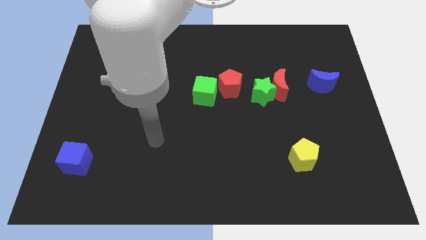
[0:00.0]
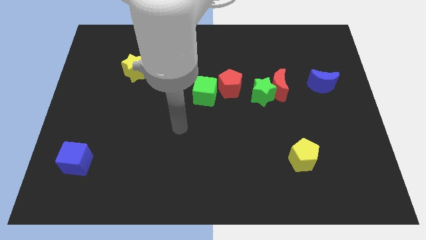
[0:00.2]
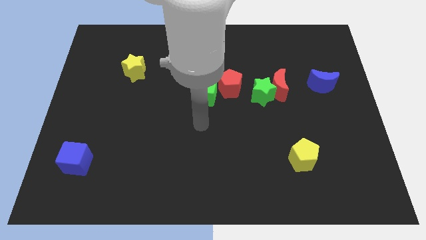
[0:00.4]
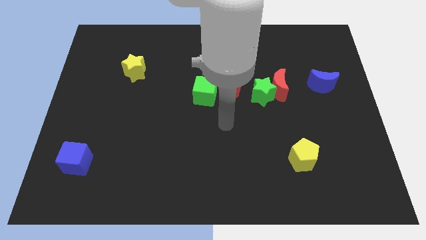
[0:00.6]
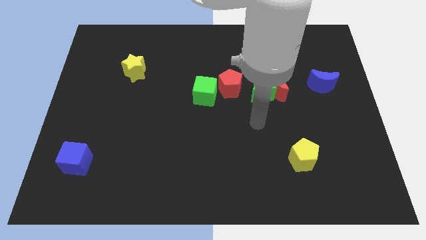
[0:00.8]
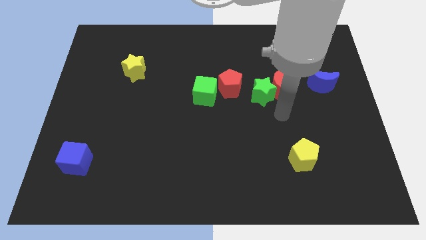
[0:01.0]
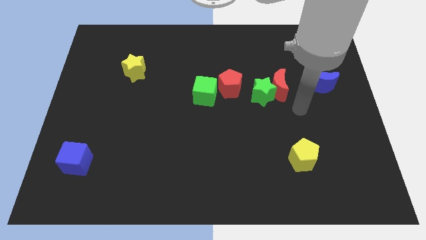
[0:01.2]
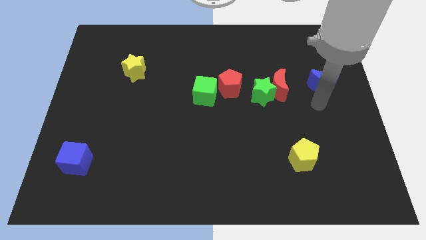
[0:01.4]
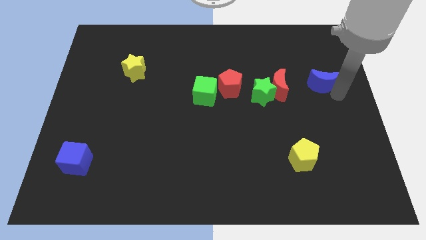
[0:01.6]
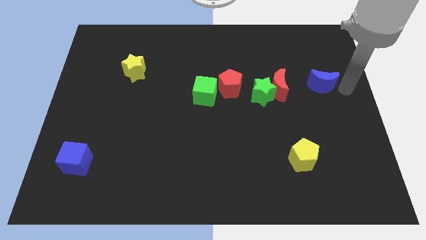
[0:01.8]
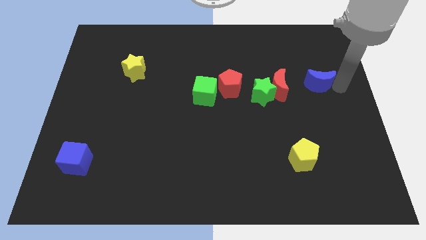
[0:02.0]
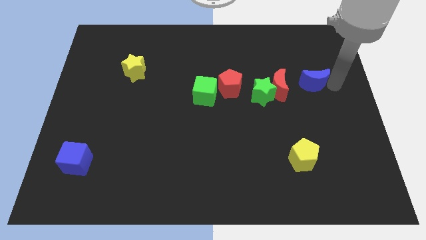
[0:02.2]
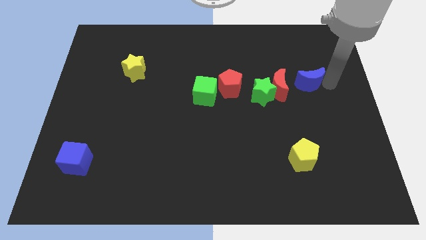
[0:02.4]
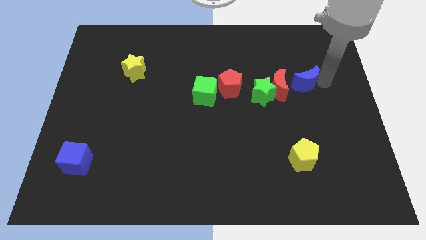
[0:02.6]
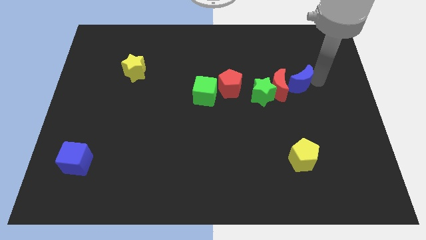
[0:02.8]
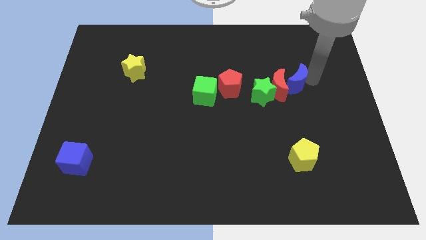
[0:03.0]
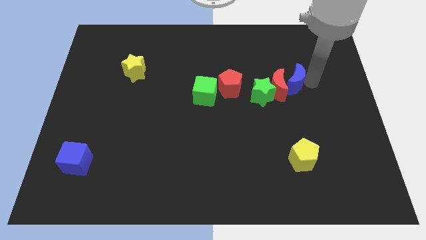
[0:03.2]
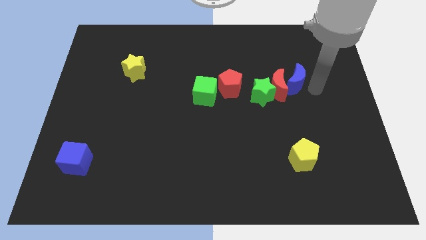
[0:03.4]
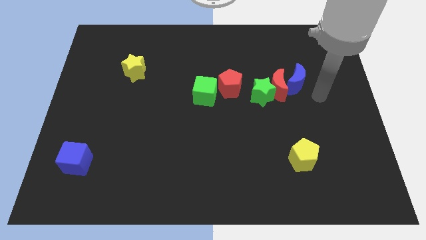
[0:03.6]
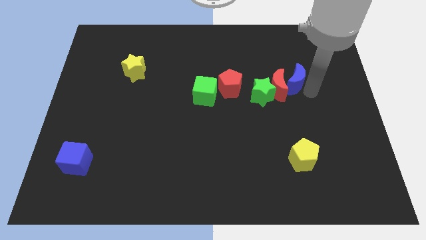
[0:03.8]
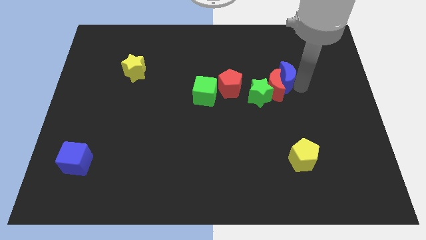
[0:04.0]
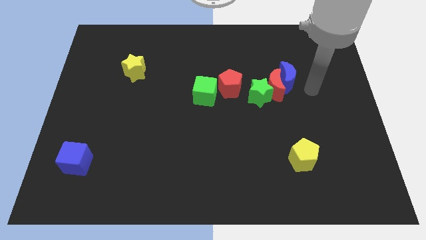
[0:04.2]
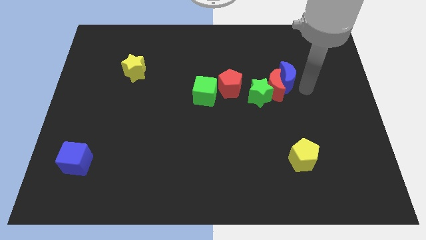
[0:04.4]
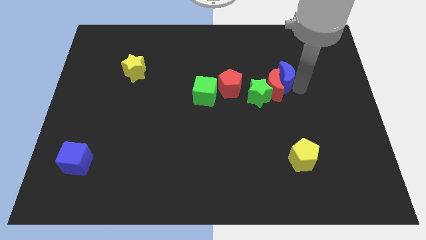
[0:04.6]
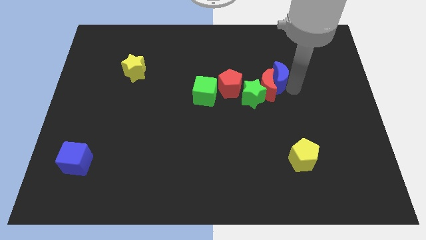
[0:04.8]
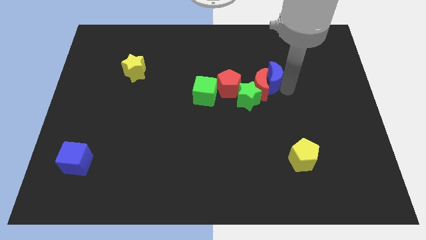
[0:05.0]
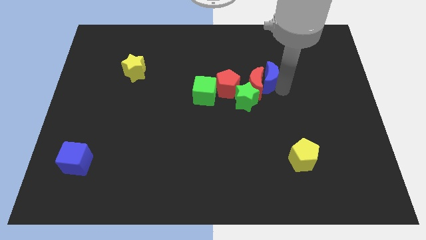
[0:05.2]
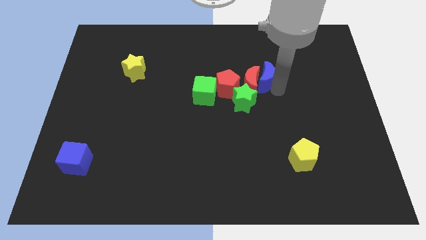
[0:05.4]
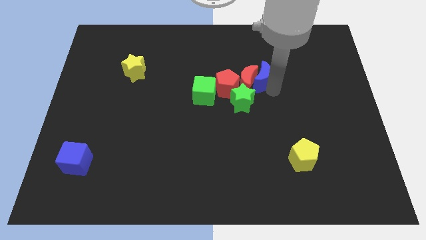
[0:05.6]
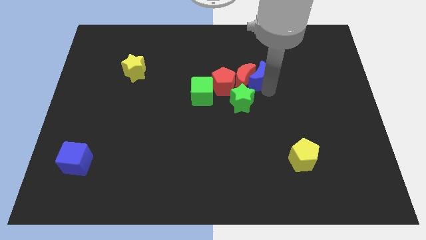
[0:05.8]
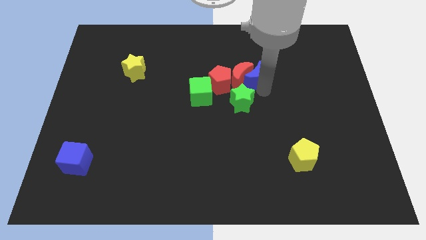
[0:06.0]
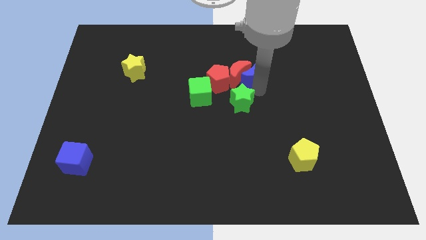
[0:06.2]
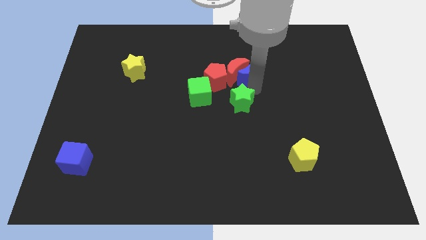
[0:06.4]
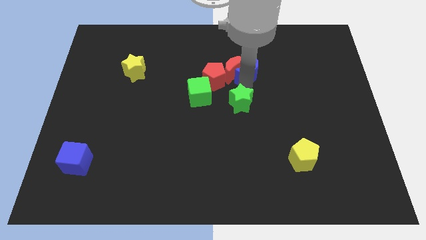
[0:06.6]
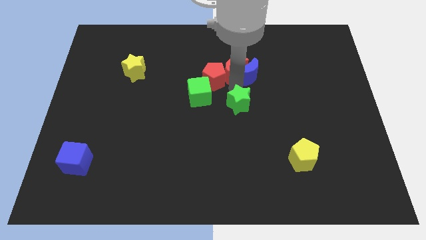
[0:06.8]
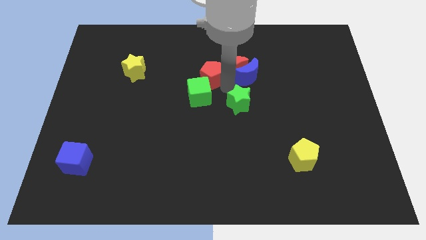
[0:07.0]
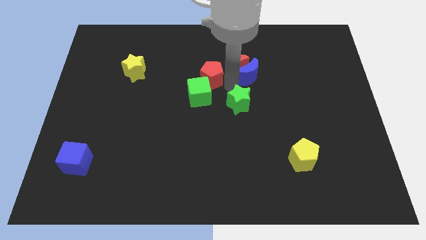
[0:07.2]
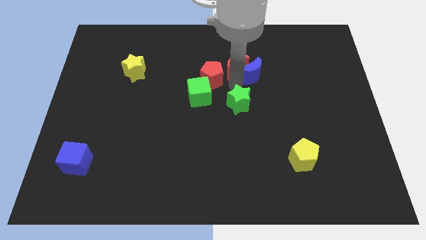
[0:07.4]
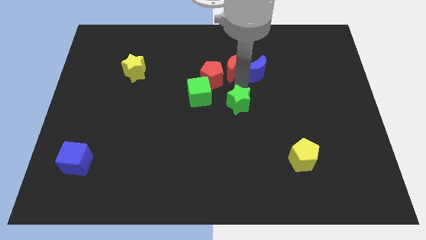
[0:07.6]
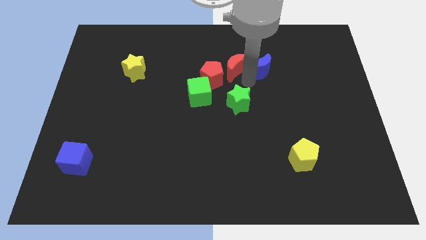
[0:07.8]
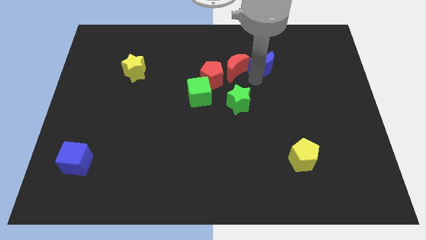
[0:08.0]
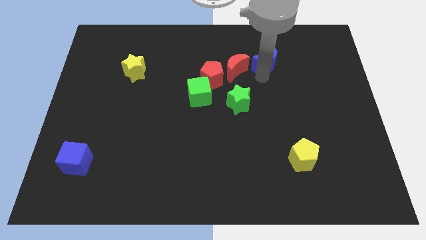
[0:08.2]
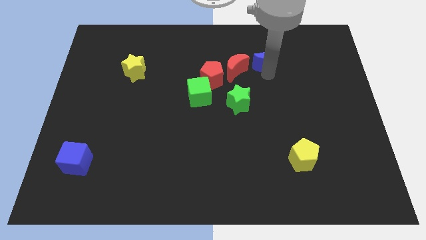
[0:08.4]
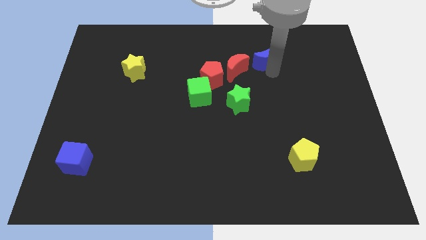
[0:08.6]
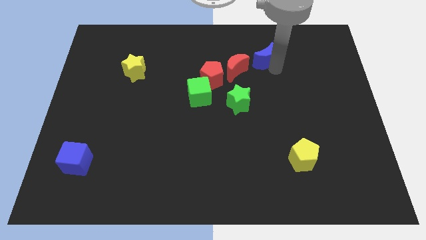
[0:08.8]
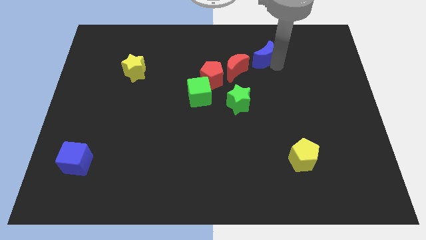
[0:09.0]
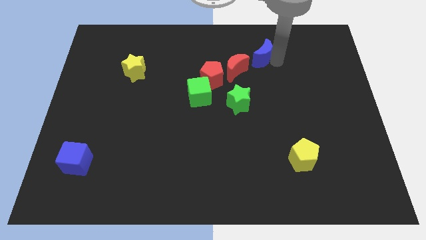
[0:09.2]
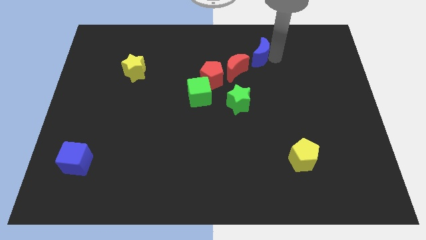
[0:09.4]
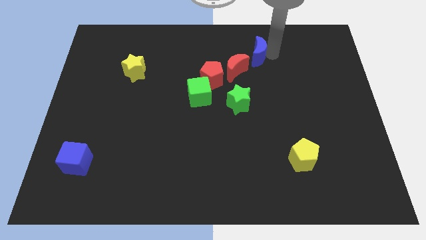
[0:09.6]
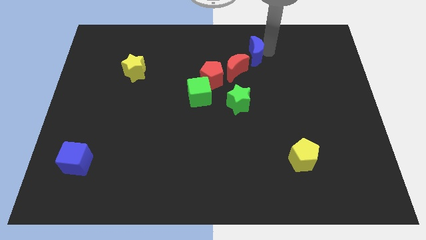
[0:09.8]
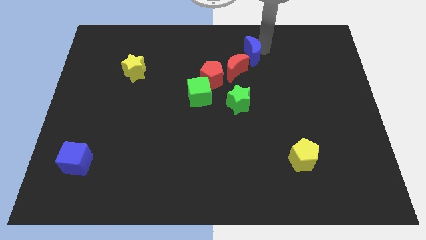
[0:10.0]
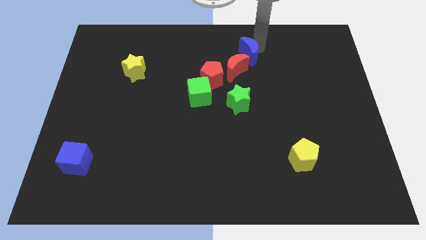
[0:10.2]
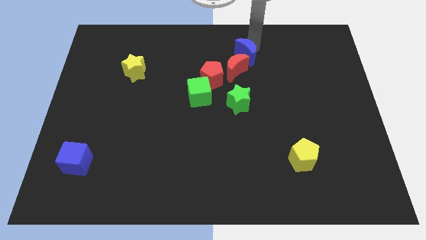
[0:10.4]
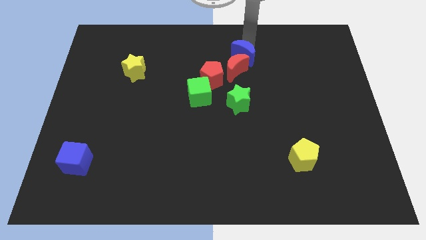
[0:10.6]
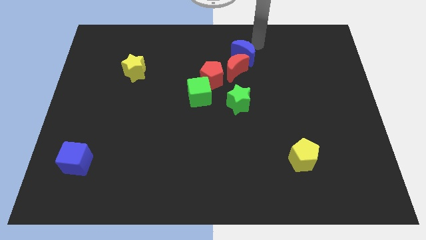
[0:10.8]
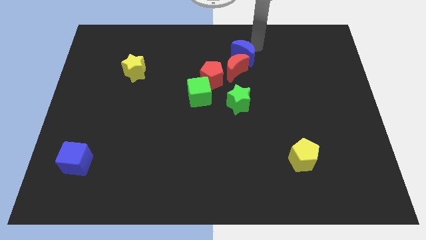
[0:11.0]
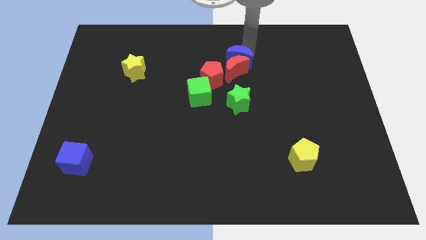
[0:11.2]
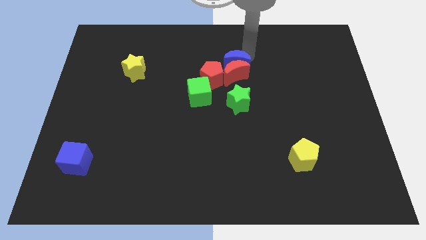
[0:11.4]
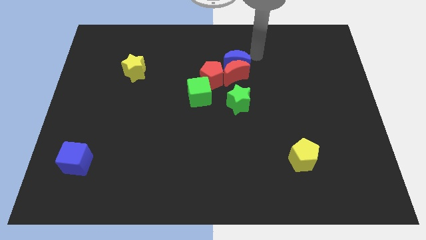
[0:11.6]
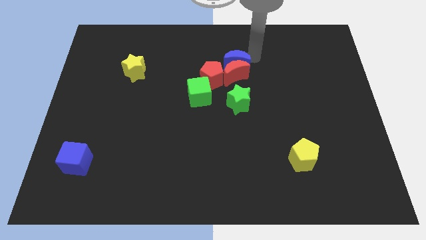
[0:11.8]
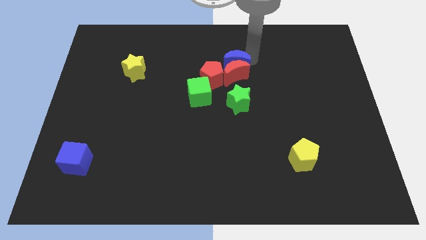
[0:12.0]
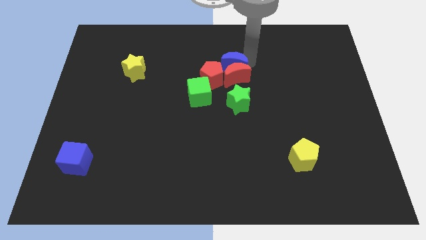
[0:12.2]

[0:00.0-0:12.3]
move the blue moon left

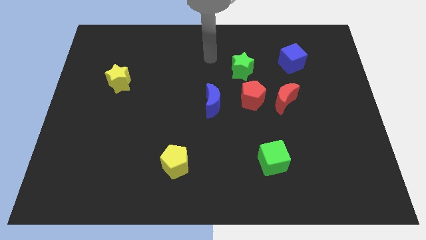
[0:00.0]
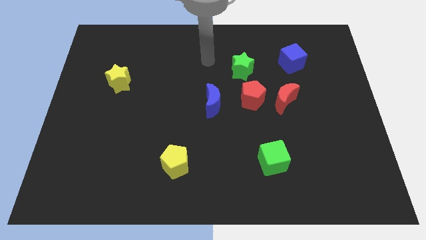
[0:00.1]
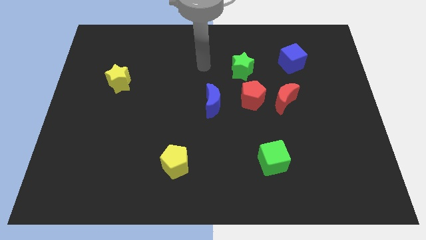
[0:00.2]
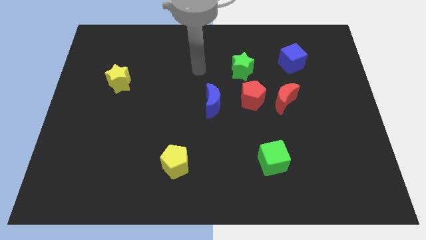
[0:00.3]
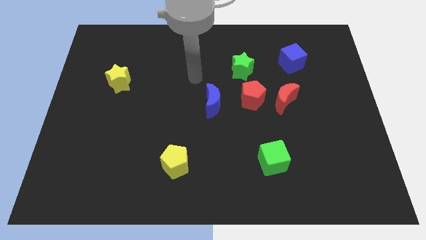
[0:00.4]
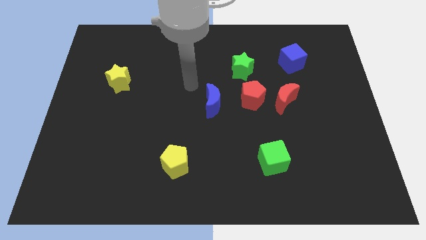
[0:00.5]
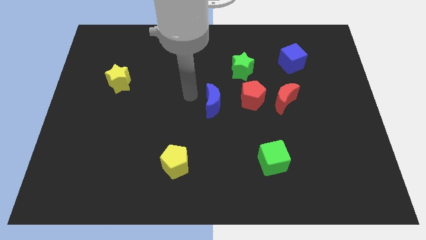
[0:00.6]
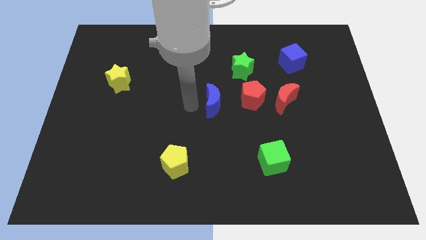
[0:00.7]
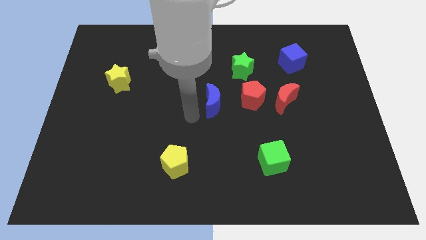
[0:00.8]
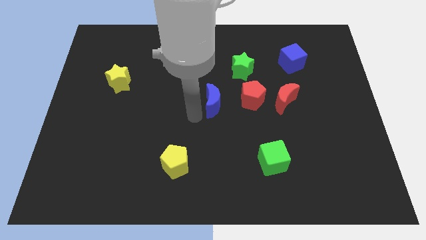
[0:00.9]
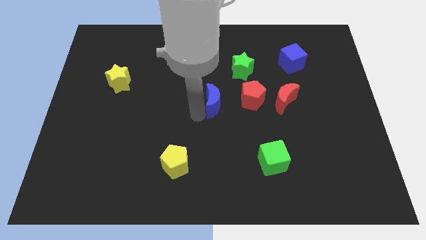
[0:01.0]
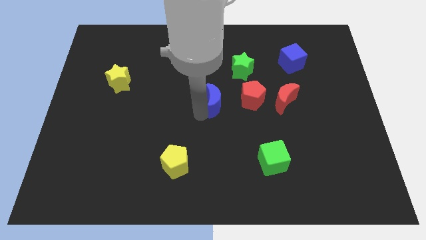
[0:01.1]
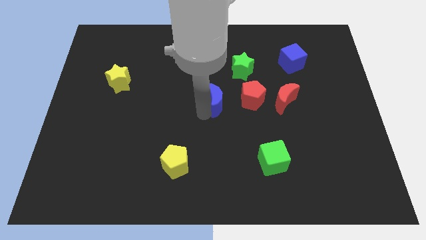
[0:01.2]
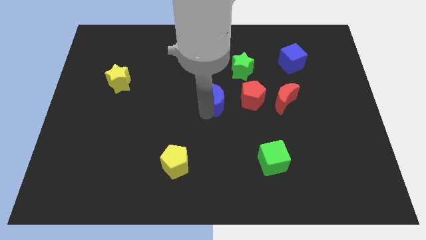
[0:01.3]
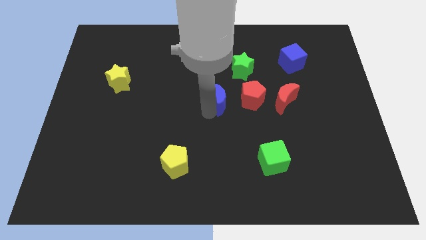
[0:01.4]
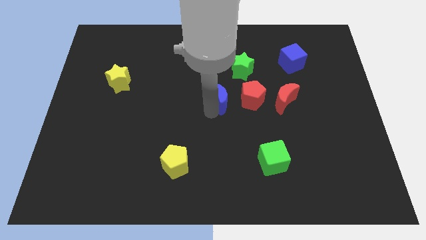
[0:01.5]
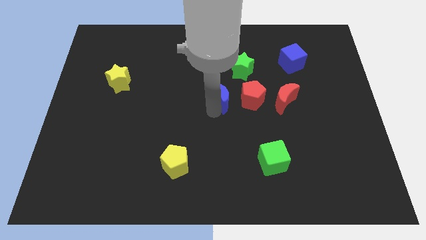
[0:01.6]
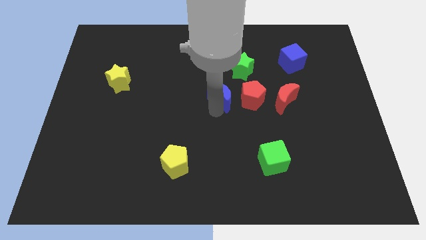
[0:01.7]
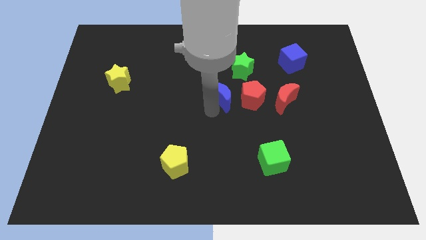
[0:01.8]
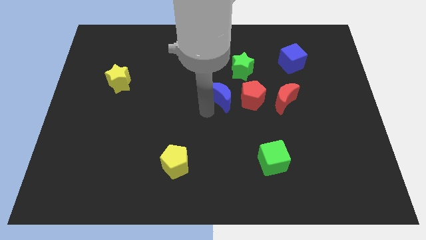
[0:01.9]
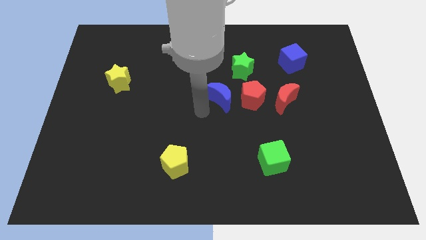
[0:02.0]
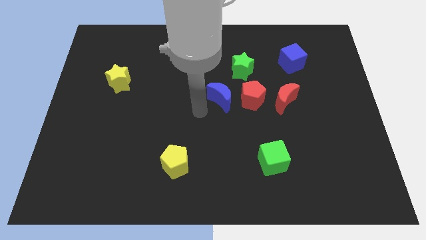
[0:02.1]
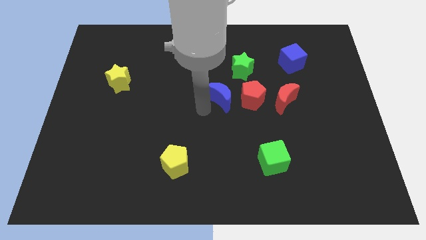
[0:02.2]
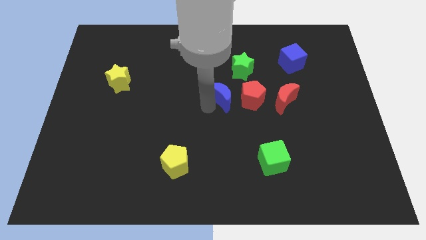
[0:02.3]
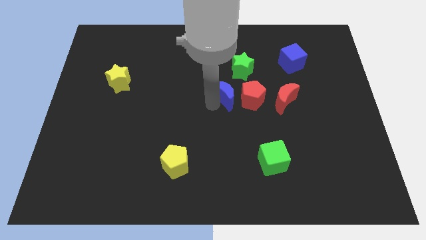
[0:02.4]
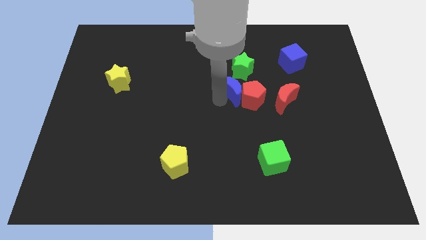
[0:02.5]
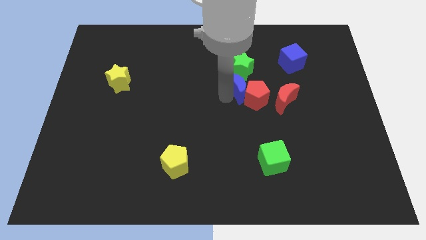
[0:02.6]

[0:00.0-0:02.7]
move the blue moon diagonally upwards and right a little
